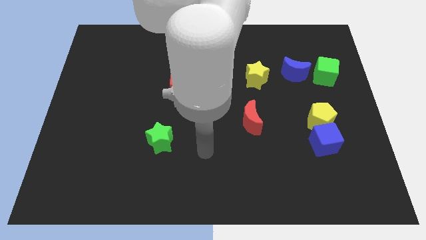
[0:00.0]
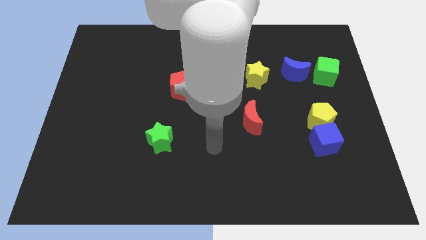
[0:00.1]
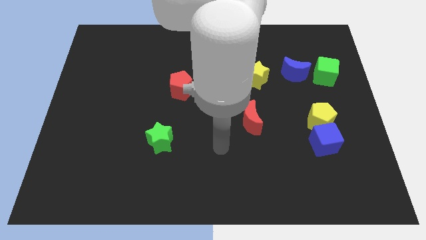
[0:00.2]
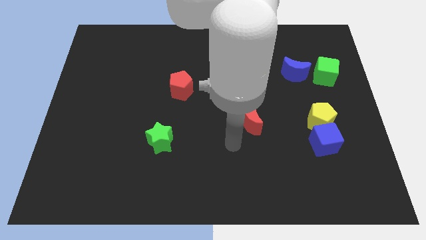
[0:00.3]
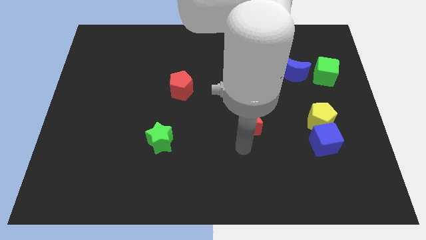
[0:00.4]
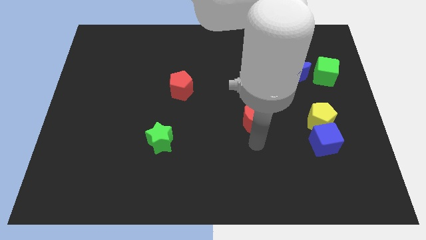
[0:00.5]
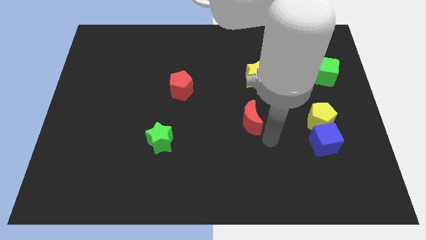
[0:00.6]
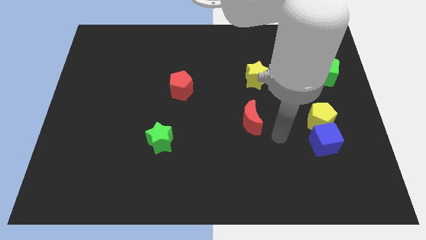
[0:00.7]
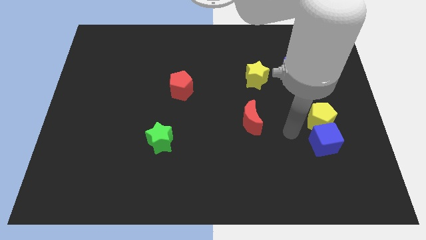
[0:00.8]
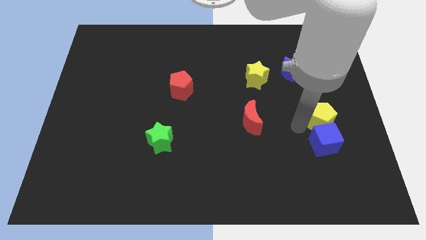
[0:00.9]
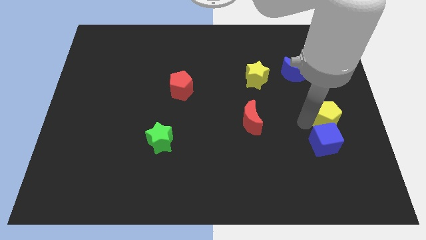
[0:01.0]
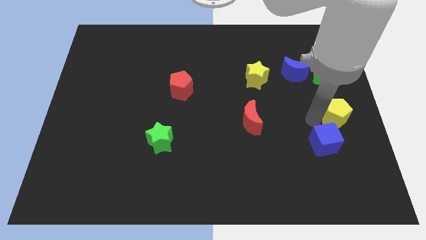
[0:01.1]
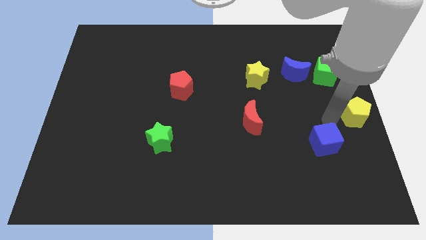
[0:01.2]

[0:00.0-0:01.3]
move the blue cube away from the yellow pentagon

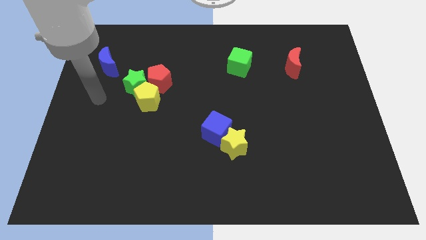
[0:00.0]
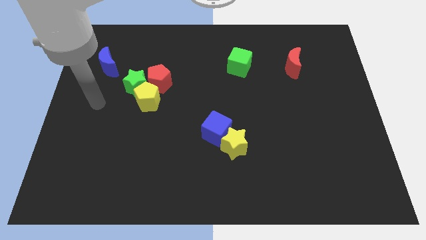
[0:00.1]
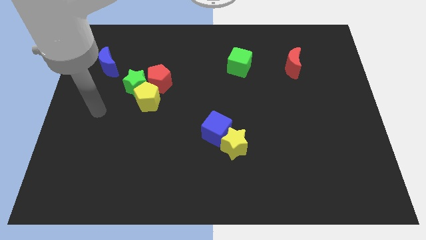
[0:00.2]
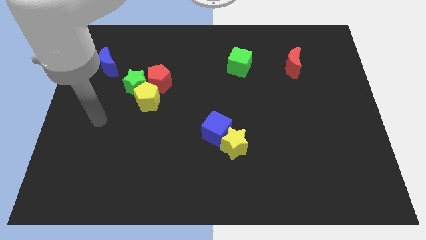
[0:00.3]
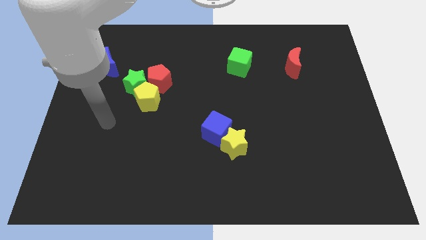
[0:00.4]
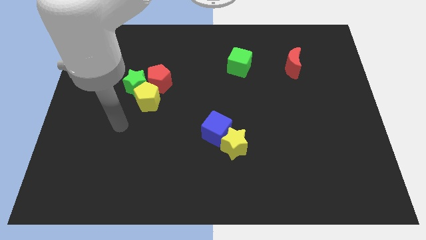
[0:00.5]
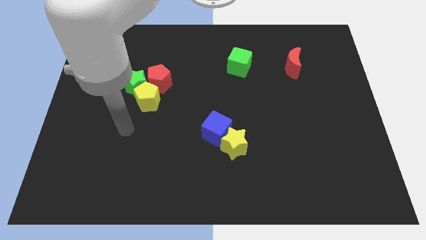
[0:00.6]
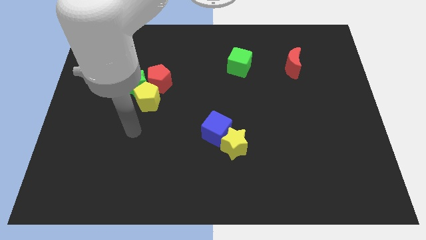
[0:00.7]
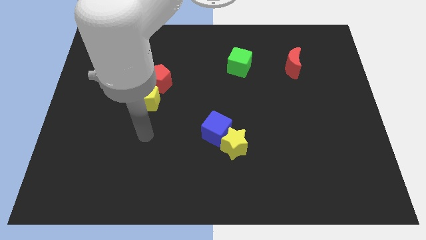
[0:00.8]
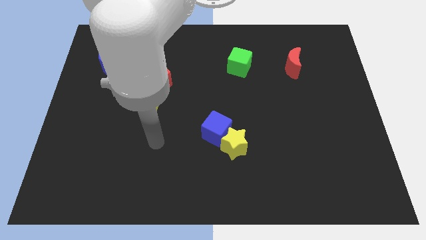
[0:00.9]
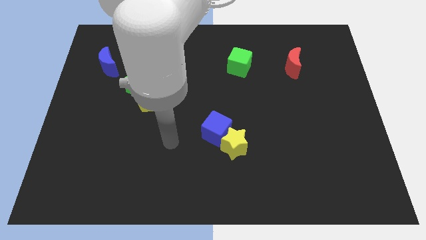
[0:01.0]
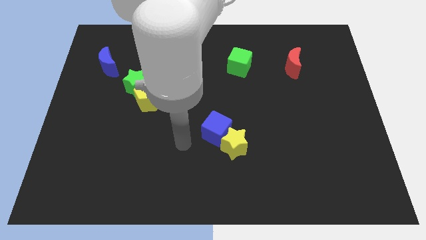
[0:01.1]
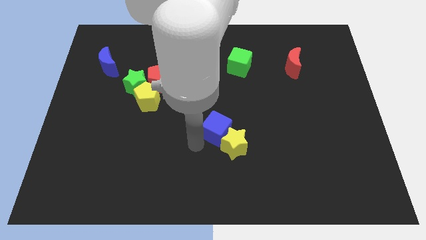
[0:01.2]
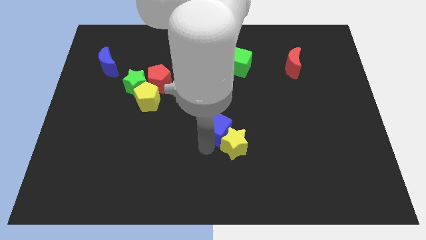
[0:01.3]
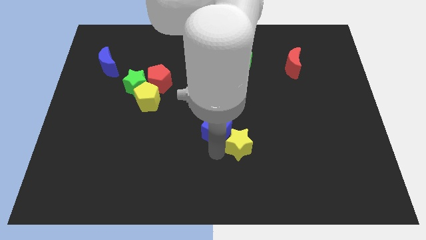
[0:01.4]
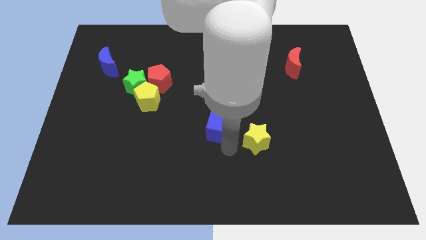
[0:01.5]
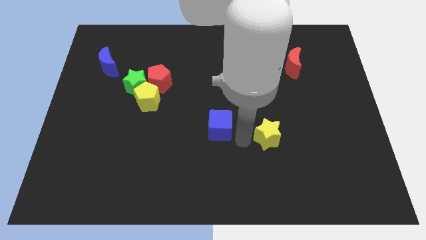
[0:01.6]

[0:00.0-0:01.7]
move the blue cube away from the yellow star

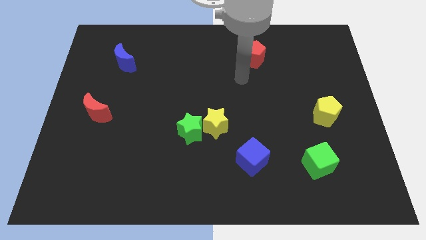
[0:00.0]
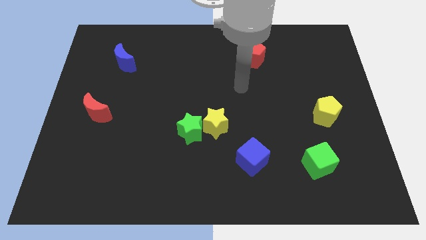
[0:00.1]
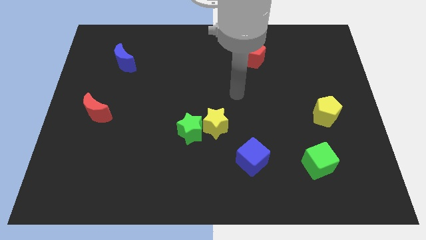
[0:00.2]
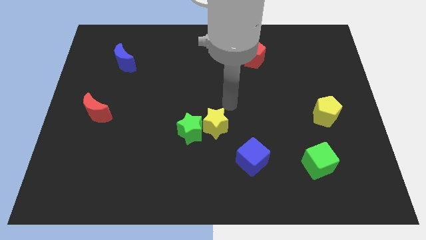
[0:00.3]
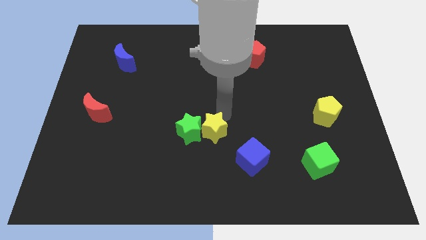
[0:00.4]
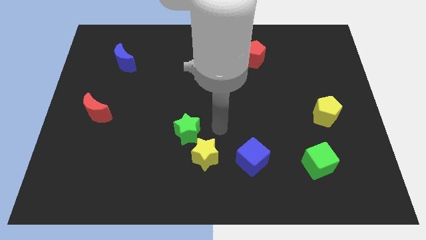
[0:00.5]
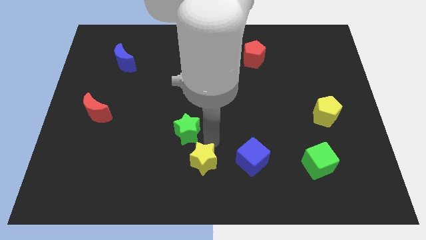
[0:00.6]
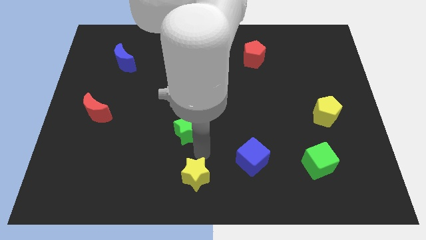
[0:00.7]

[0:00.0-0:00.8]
move the green star away from the yellow star

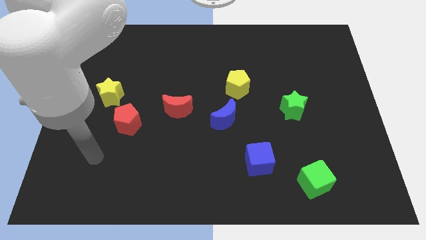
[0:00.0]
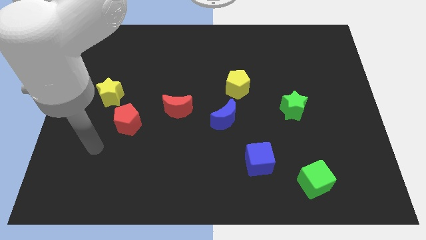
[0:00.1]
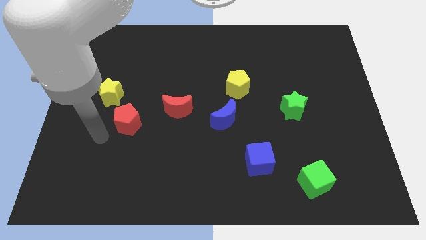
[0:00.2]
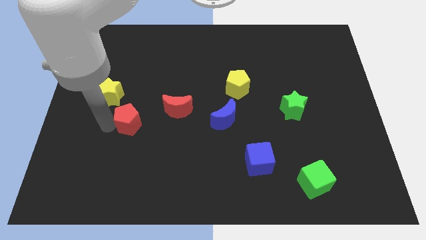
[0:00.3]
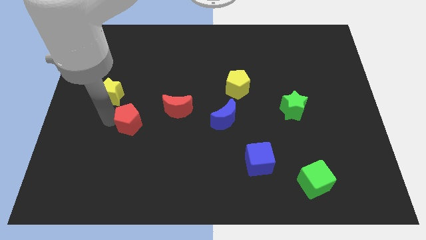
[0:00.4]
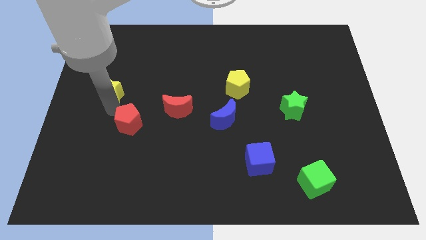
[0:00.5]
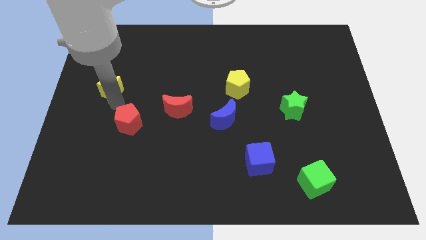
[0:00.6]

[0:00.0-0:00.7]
pull the red pentagon apart from the yellow star

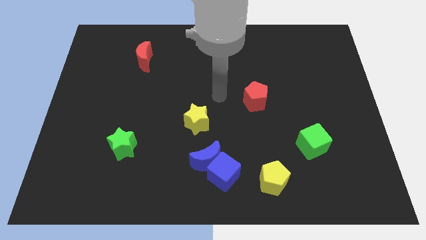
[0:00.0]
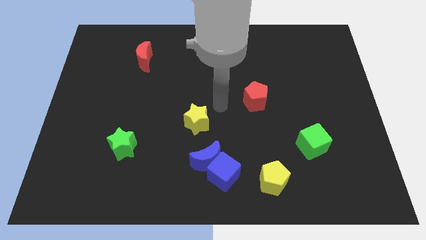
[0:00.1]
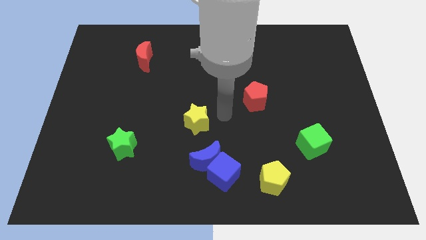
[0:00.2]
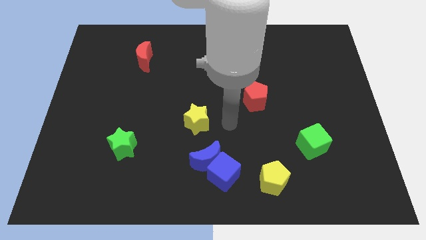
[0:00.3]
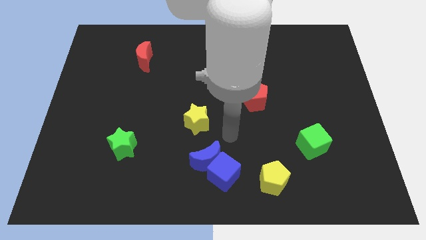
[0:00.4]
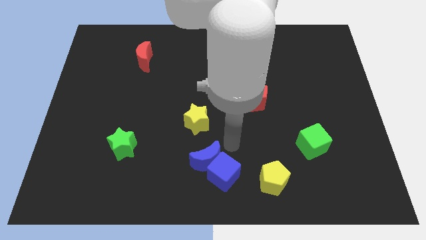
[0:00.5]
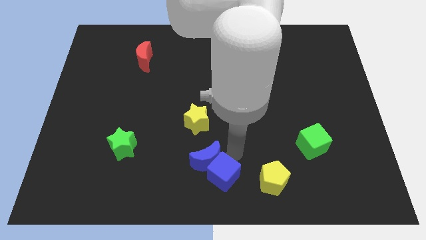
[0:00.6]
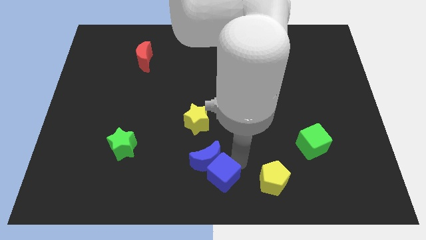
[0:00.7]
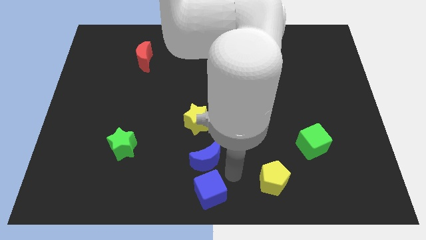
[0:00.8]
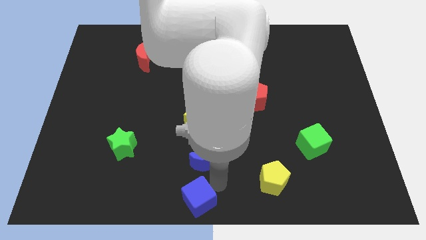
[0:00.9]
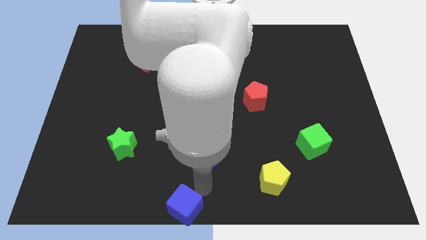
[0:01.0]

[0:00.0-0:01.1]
move the blue moon away from the blue cube

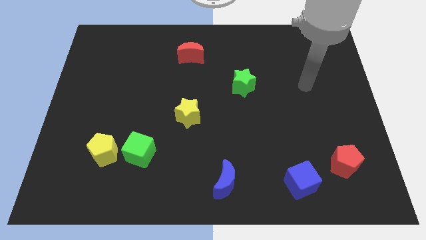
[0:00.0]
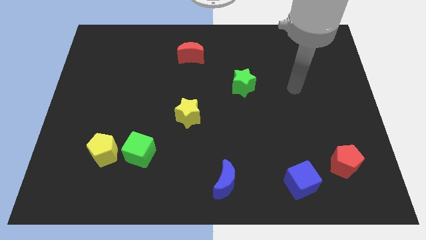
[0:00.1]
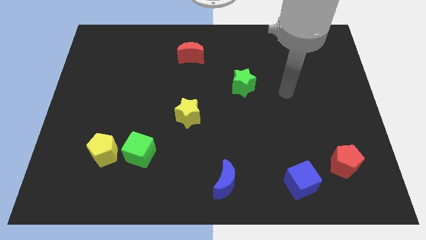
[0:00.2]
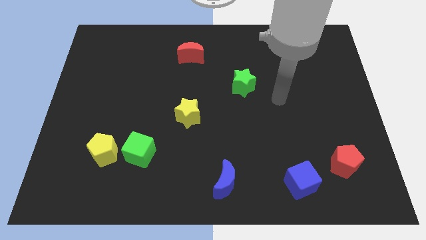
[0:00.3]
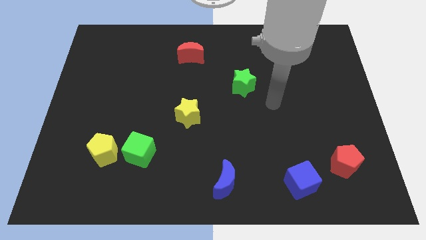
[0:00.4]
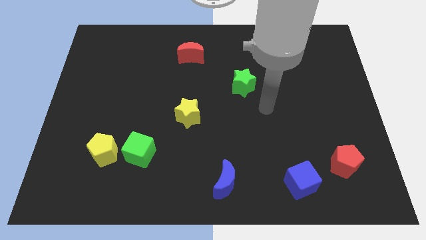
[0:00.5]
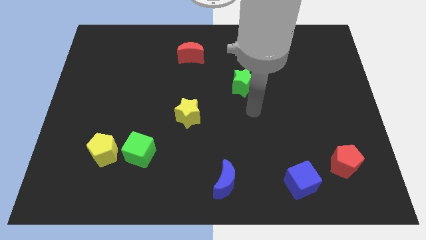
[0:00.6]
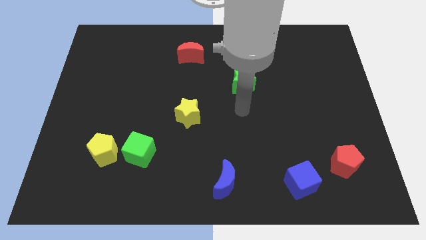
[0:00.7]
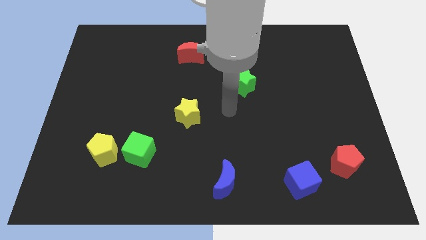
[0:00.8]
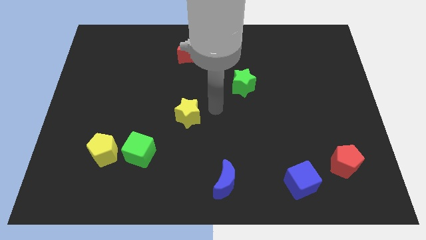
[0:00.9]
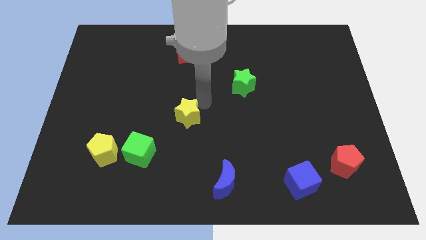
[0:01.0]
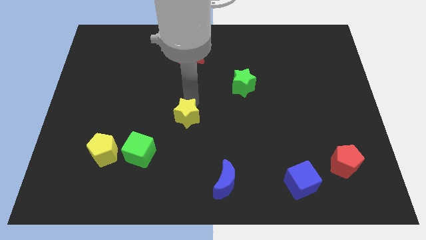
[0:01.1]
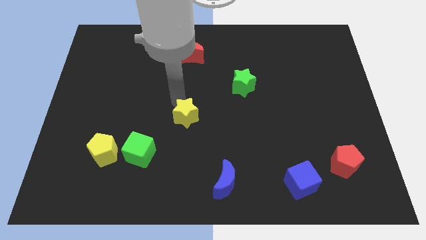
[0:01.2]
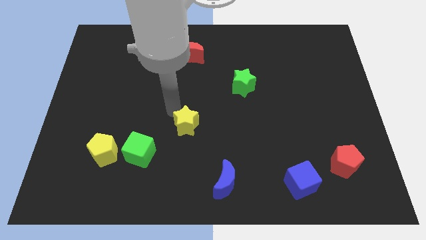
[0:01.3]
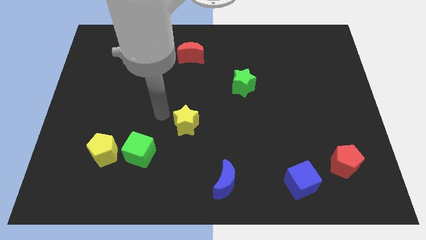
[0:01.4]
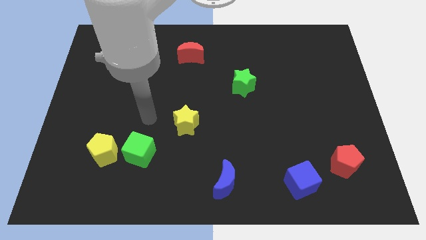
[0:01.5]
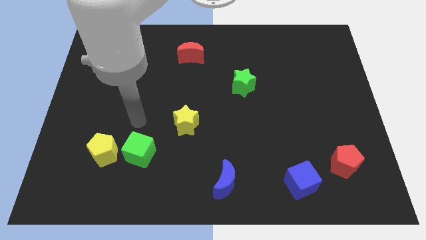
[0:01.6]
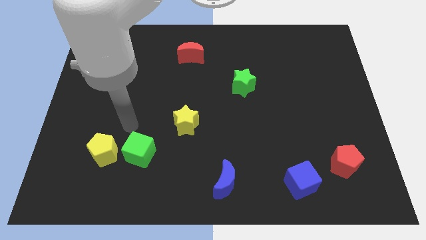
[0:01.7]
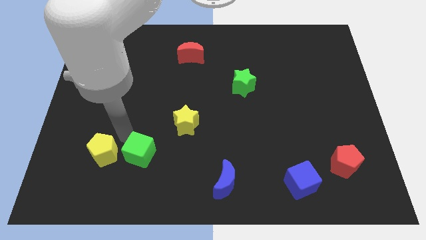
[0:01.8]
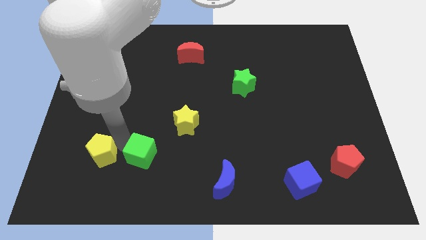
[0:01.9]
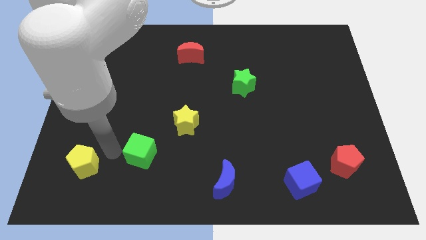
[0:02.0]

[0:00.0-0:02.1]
move the green cube away from the yellow pentagon

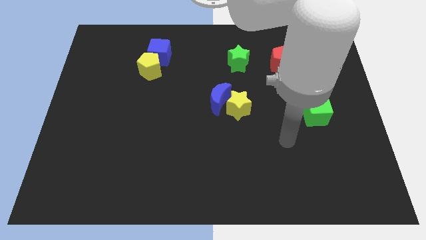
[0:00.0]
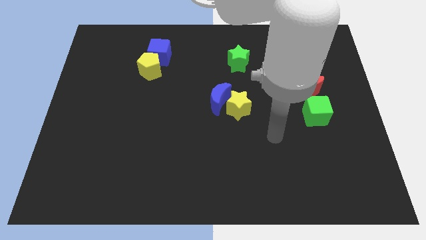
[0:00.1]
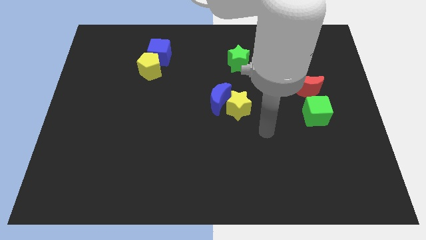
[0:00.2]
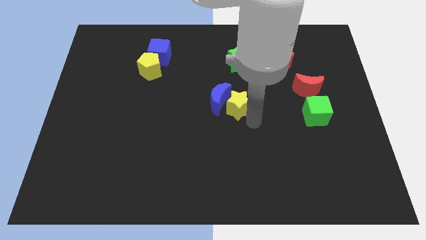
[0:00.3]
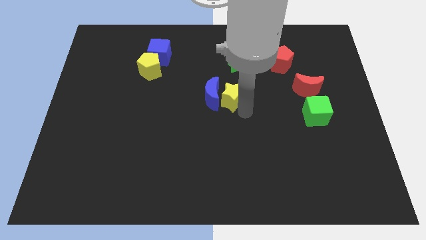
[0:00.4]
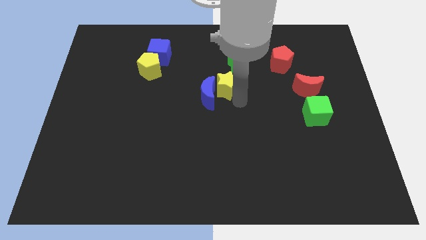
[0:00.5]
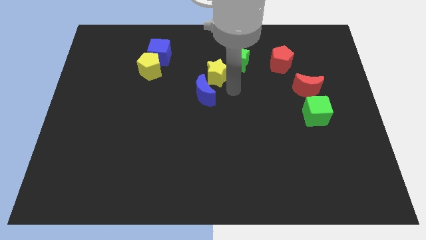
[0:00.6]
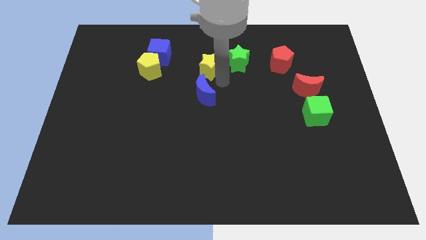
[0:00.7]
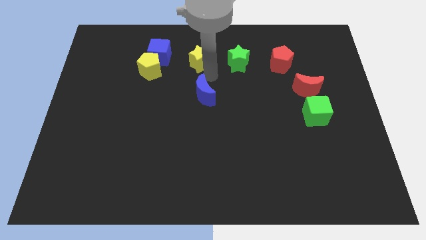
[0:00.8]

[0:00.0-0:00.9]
move the blue moon away from the yellow star

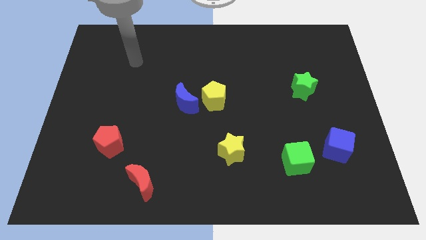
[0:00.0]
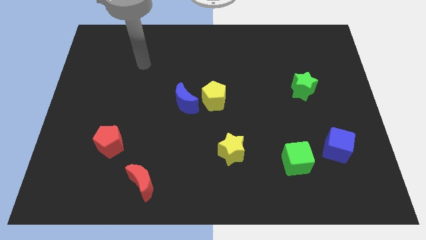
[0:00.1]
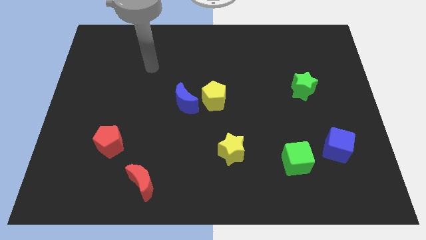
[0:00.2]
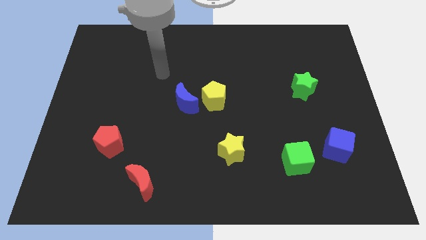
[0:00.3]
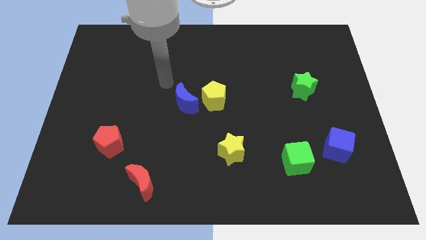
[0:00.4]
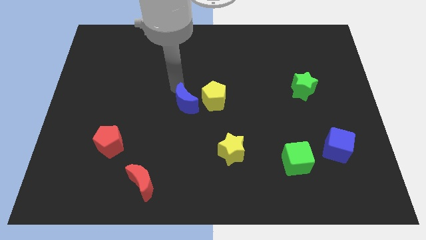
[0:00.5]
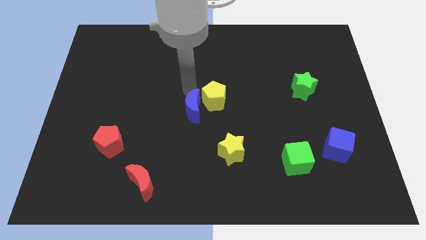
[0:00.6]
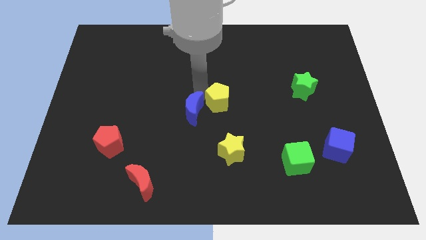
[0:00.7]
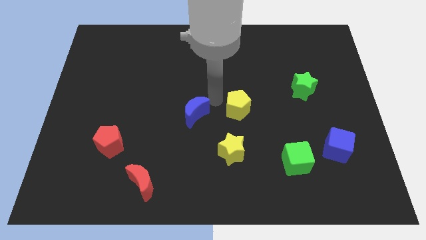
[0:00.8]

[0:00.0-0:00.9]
move the blue moon away from the yellow pentagon
